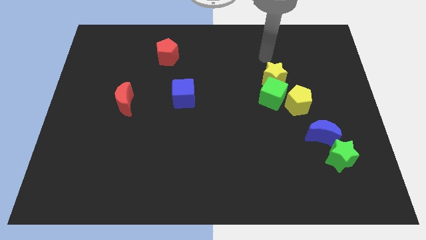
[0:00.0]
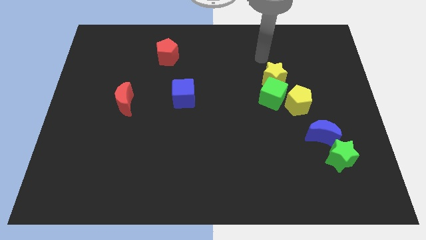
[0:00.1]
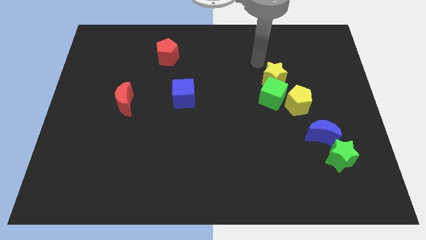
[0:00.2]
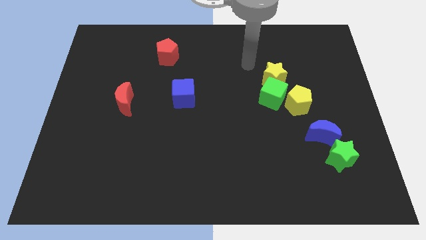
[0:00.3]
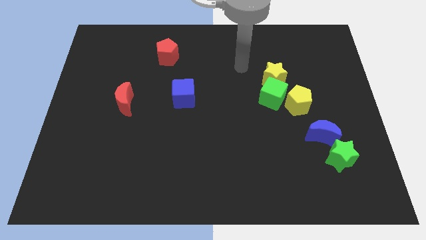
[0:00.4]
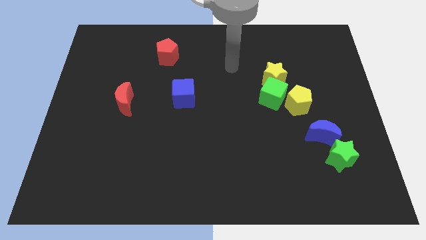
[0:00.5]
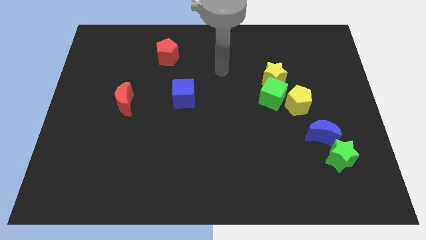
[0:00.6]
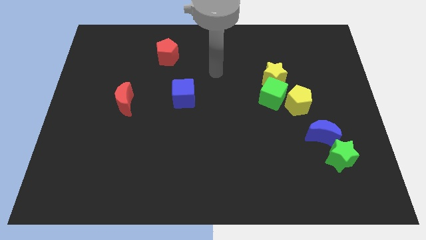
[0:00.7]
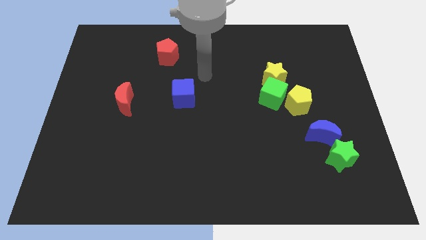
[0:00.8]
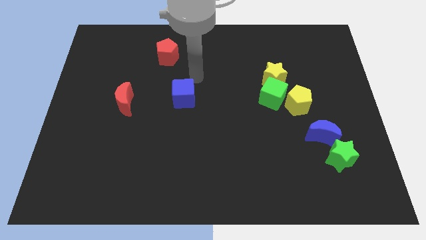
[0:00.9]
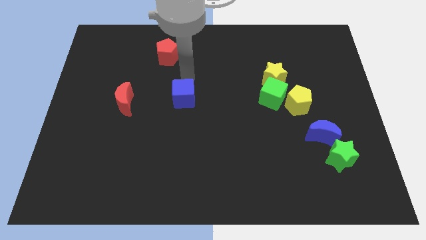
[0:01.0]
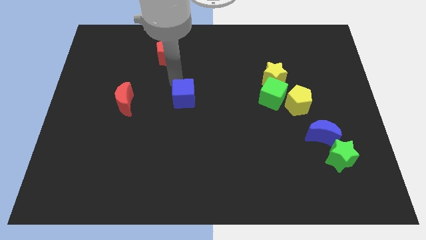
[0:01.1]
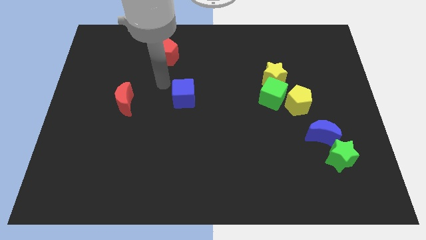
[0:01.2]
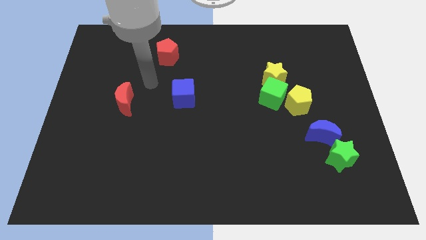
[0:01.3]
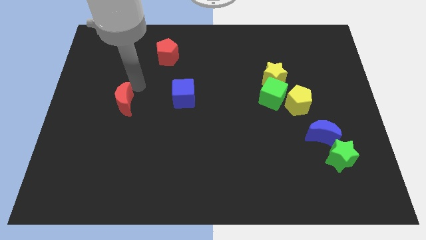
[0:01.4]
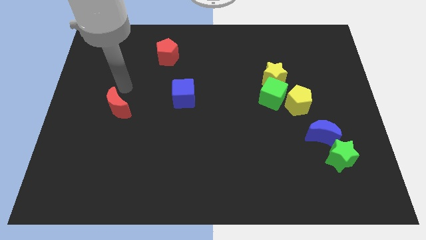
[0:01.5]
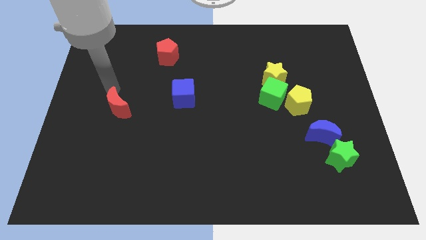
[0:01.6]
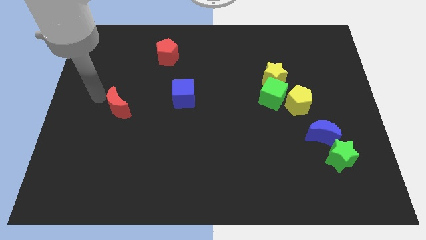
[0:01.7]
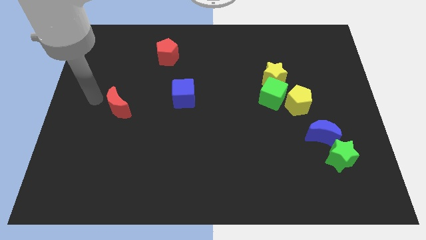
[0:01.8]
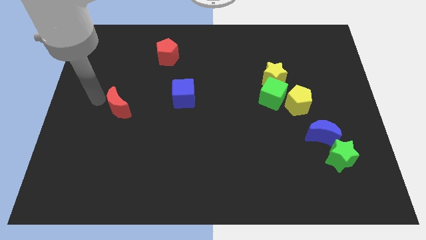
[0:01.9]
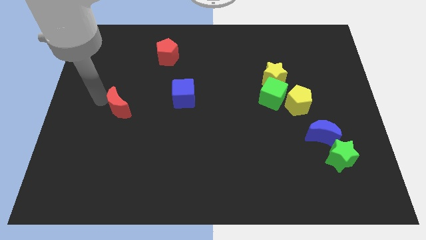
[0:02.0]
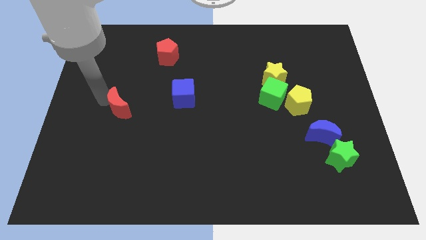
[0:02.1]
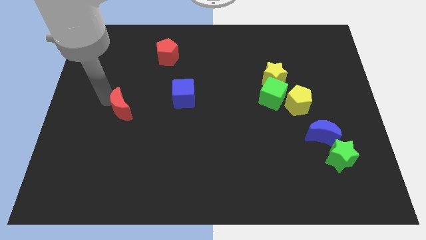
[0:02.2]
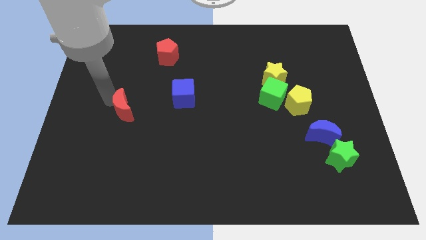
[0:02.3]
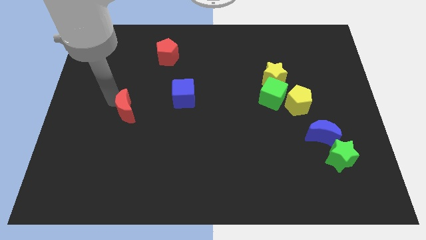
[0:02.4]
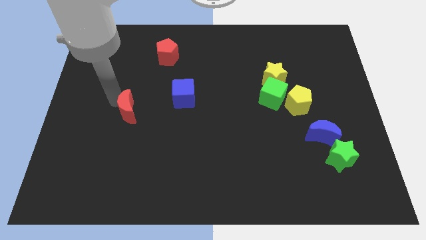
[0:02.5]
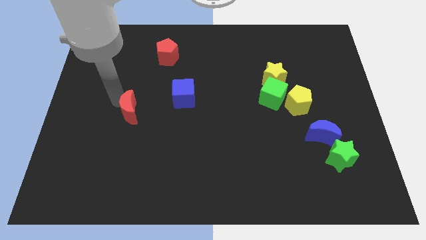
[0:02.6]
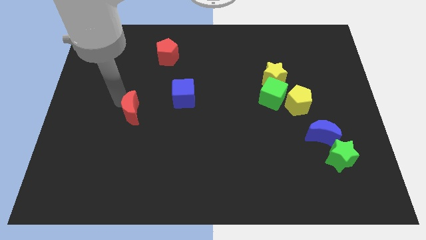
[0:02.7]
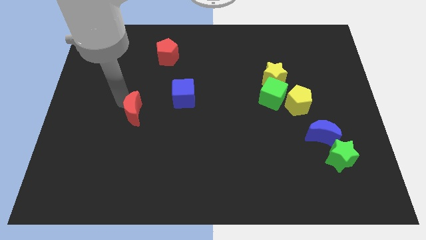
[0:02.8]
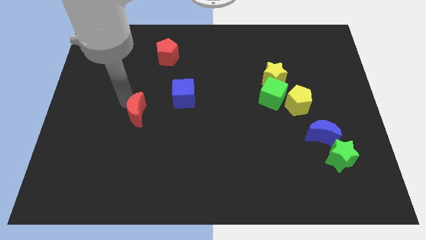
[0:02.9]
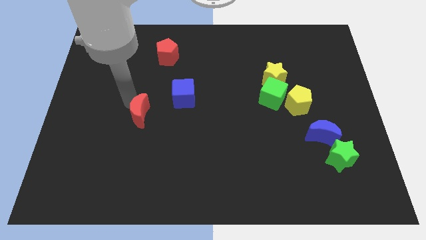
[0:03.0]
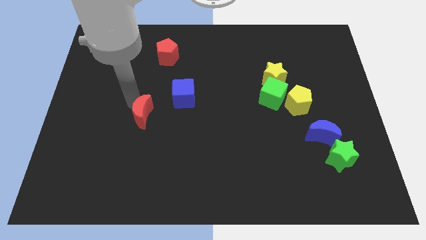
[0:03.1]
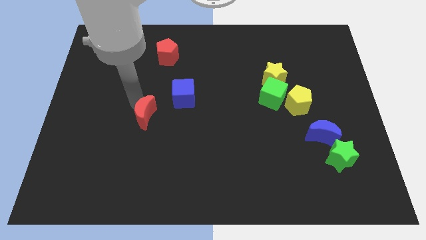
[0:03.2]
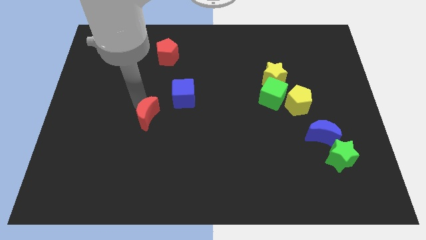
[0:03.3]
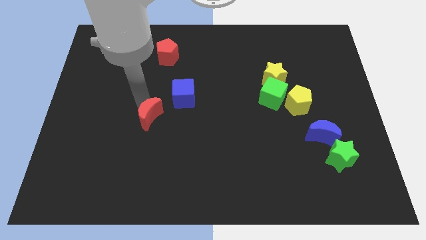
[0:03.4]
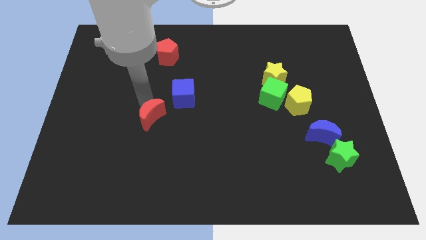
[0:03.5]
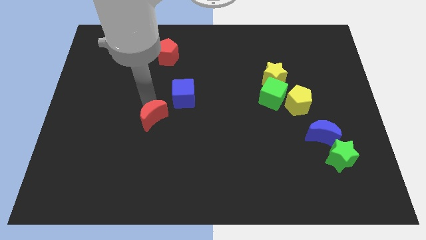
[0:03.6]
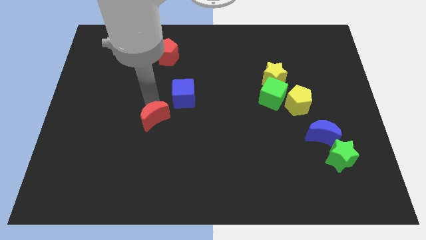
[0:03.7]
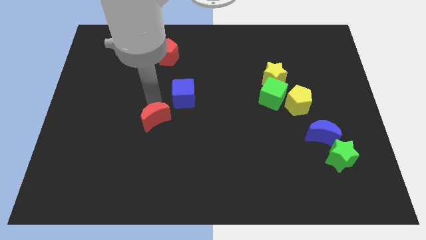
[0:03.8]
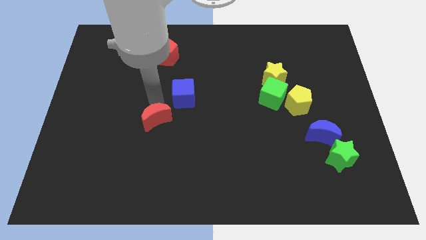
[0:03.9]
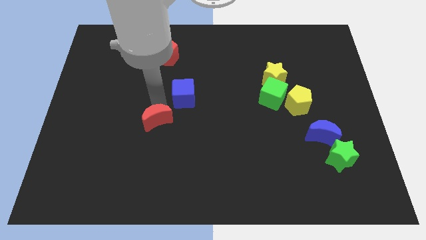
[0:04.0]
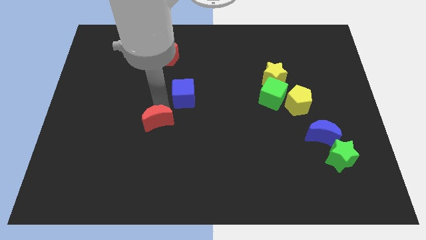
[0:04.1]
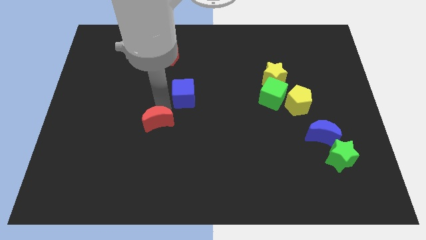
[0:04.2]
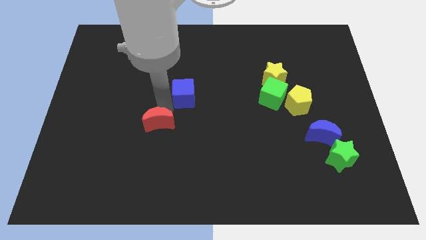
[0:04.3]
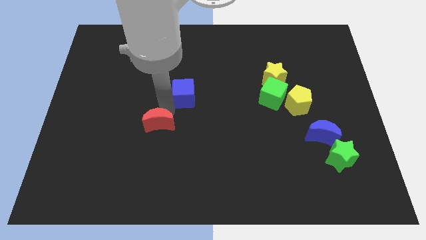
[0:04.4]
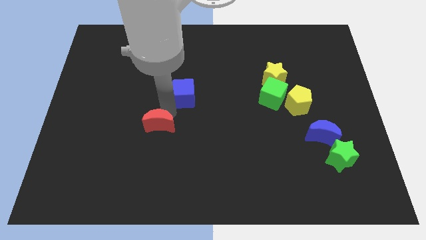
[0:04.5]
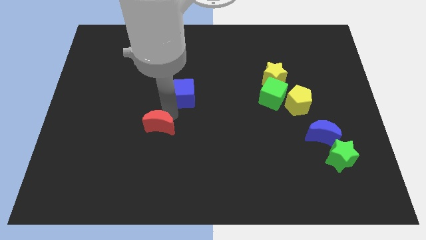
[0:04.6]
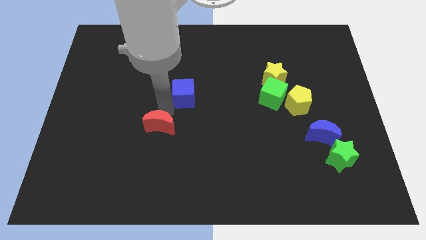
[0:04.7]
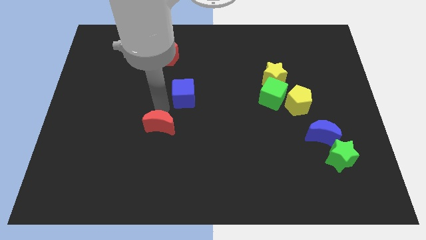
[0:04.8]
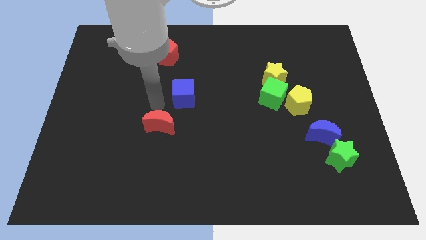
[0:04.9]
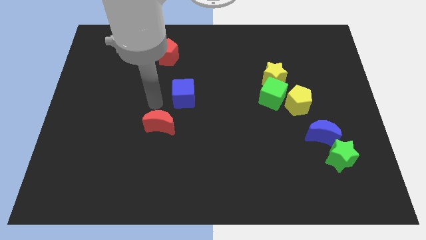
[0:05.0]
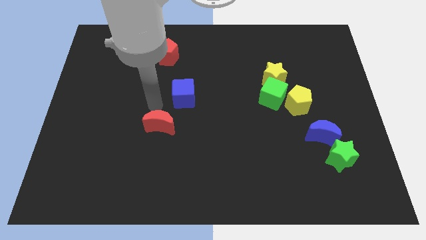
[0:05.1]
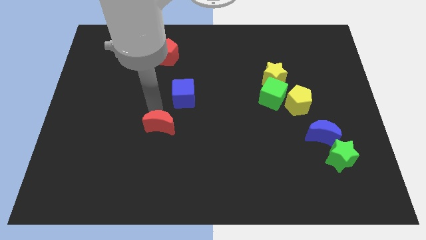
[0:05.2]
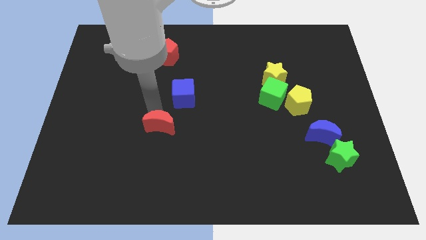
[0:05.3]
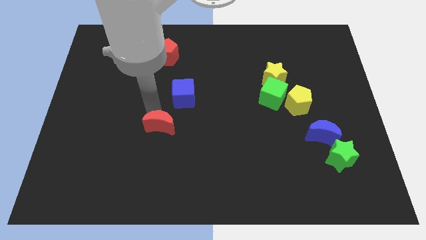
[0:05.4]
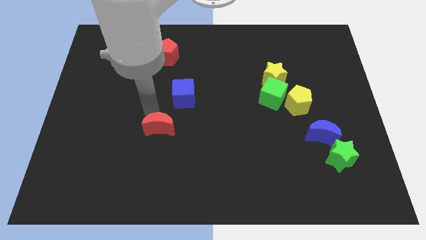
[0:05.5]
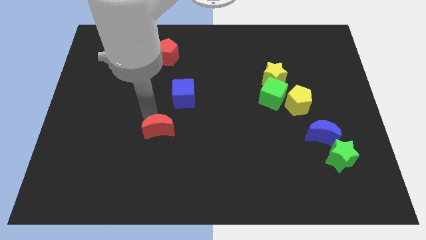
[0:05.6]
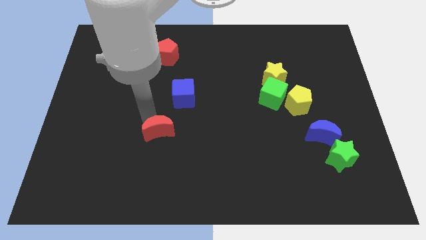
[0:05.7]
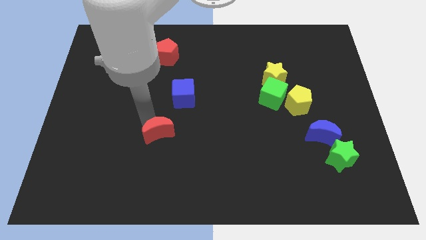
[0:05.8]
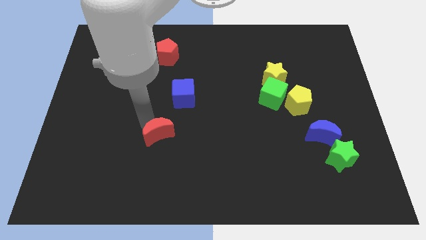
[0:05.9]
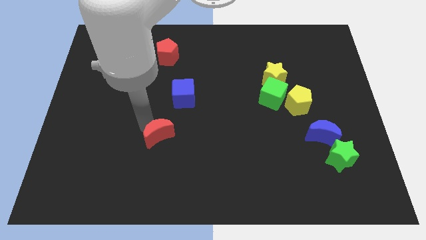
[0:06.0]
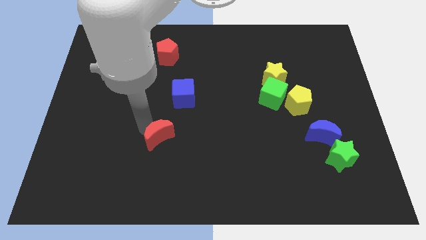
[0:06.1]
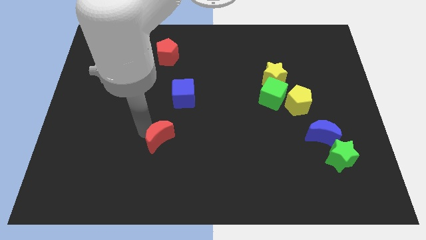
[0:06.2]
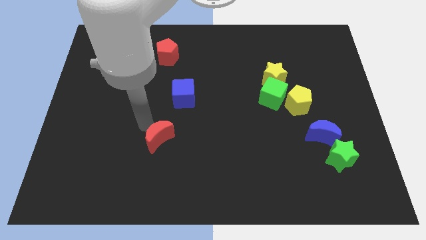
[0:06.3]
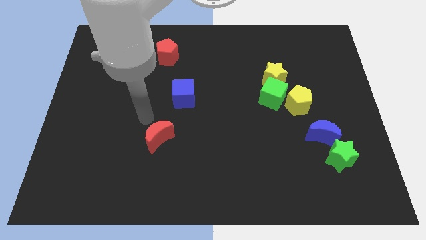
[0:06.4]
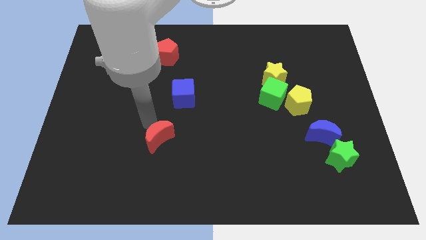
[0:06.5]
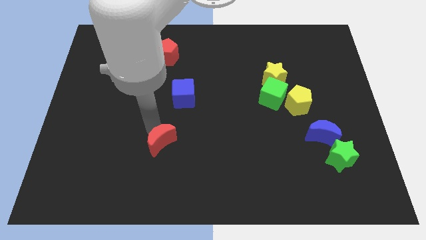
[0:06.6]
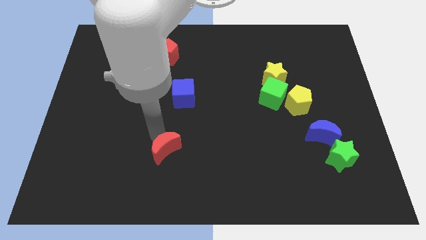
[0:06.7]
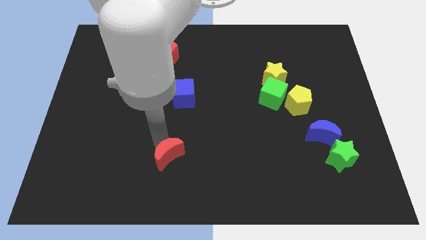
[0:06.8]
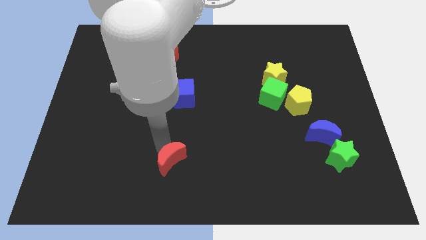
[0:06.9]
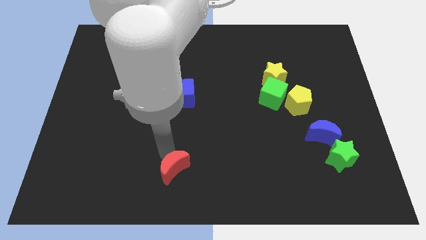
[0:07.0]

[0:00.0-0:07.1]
put the red moon to the bottom side
